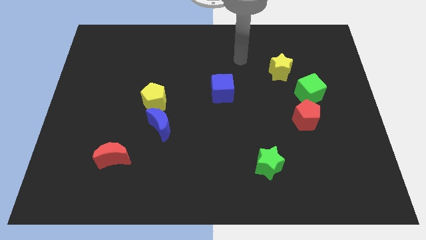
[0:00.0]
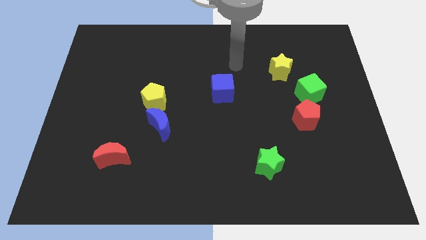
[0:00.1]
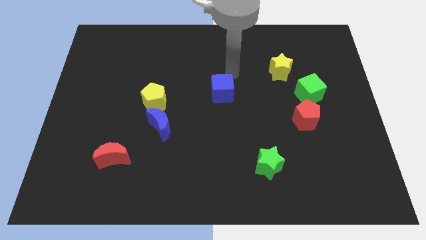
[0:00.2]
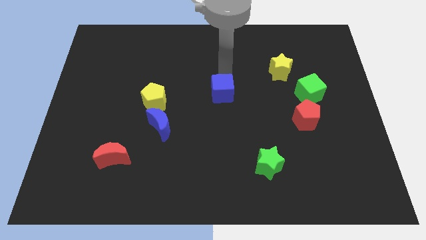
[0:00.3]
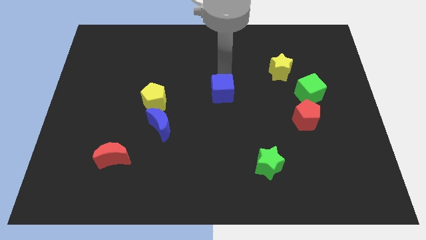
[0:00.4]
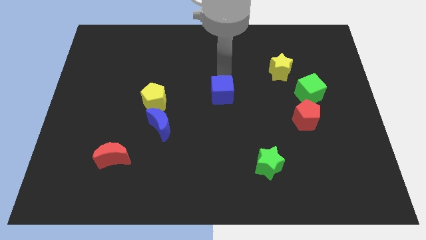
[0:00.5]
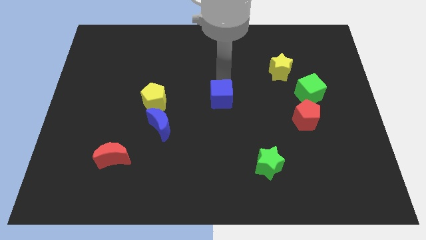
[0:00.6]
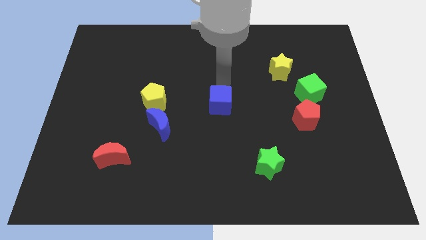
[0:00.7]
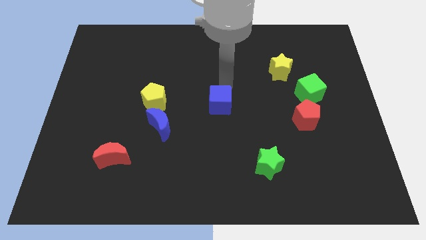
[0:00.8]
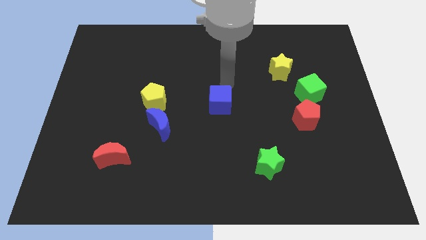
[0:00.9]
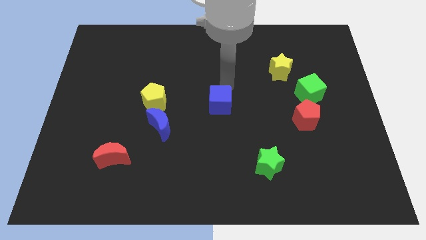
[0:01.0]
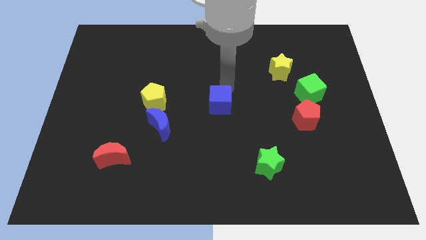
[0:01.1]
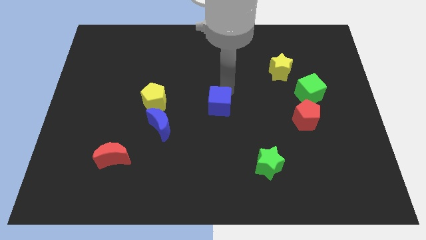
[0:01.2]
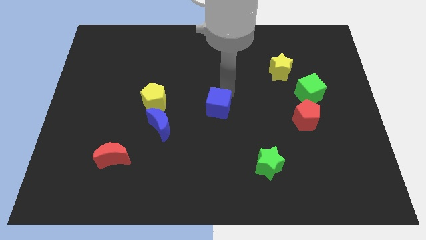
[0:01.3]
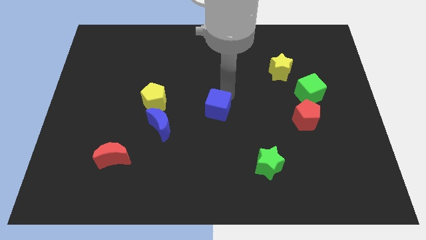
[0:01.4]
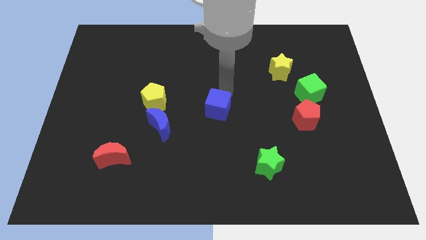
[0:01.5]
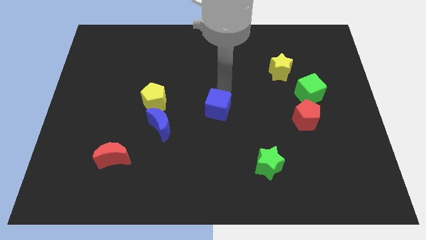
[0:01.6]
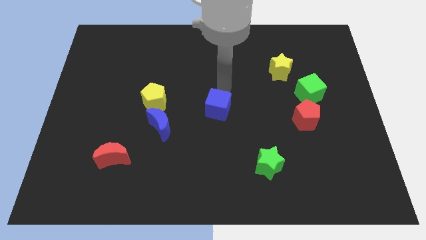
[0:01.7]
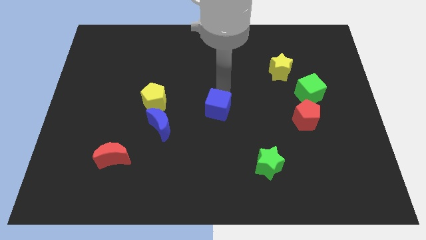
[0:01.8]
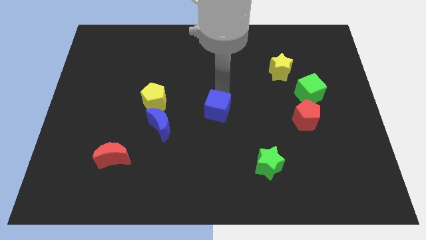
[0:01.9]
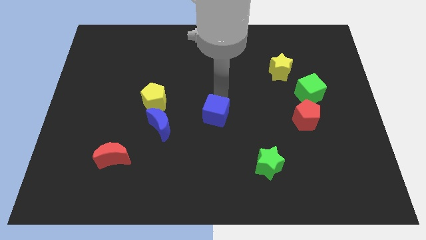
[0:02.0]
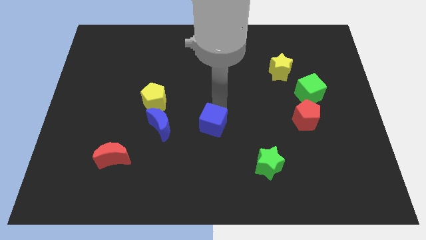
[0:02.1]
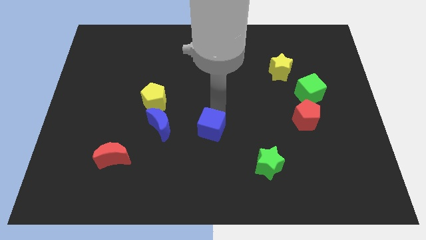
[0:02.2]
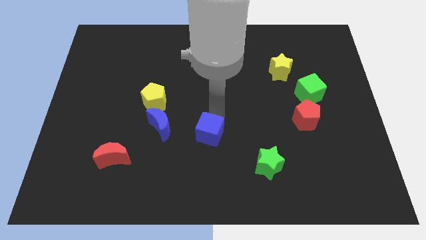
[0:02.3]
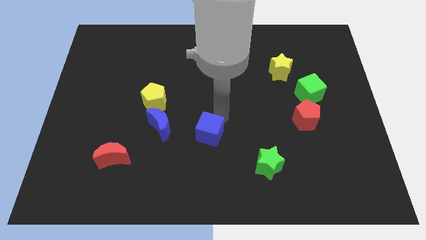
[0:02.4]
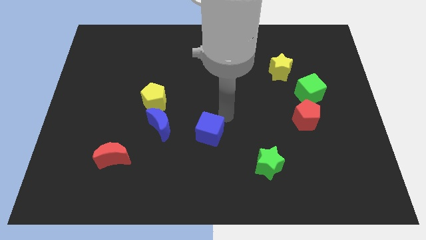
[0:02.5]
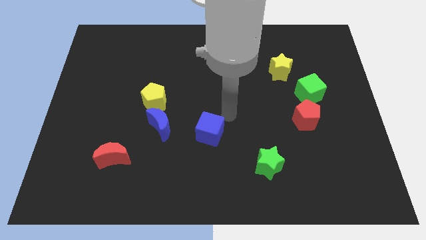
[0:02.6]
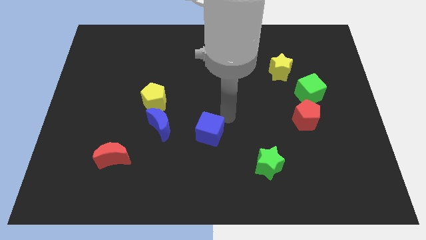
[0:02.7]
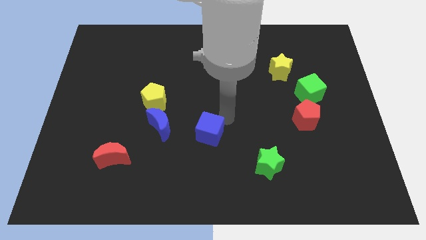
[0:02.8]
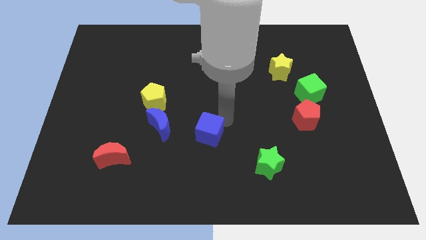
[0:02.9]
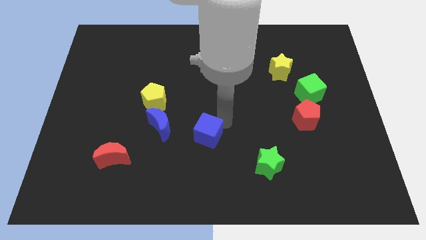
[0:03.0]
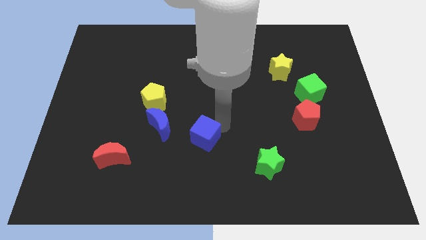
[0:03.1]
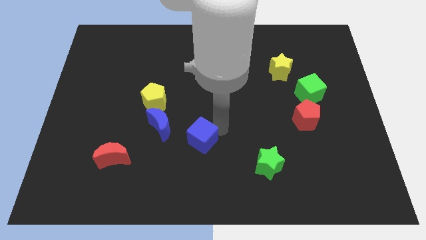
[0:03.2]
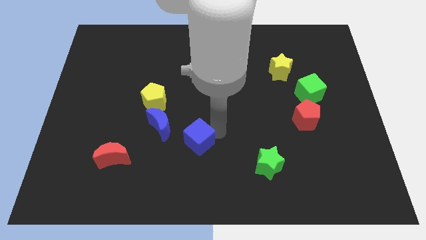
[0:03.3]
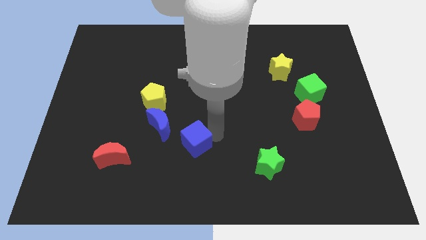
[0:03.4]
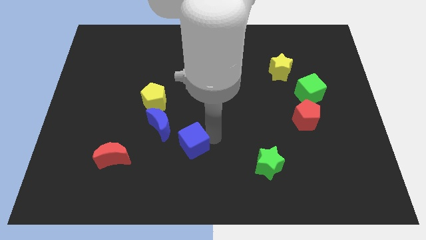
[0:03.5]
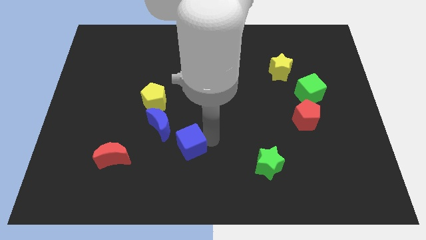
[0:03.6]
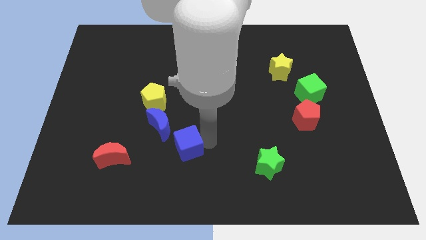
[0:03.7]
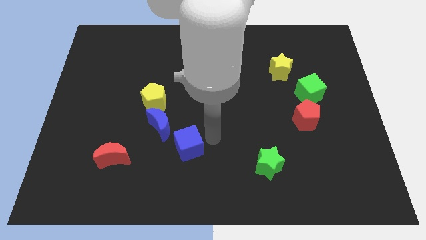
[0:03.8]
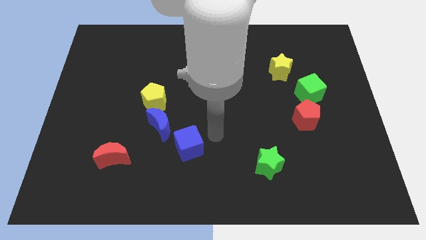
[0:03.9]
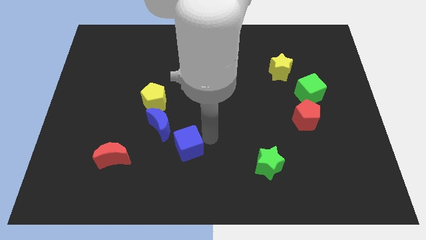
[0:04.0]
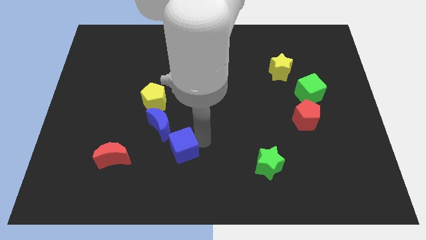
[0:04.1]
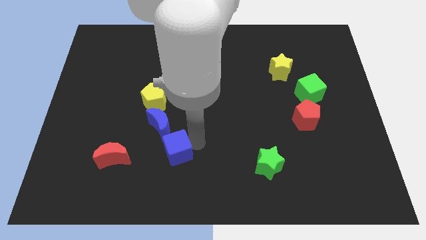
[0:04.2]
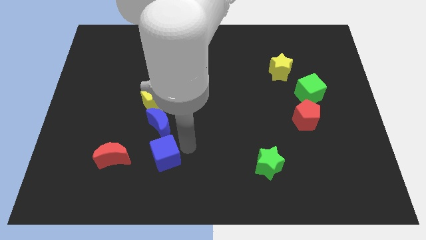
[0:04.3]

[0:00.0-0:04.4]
move the blue cube downwards and then to the left

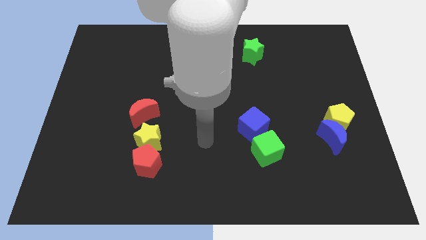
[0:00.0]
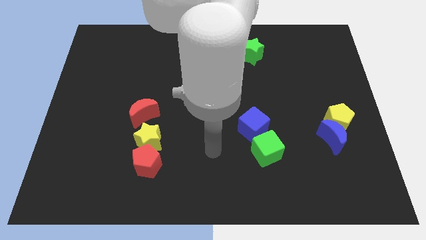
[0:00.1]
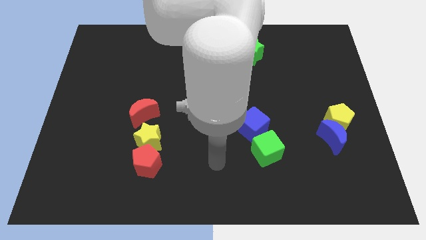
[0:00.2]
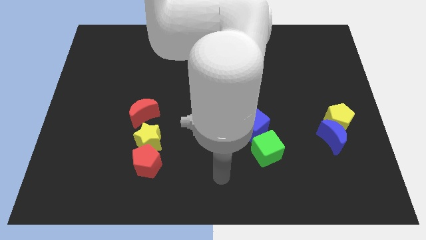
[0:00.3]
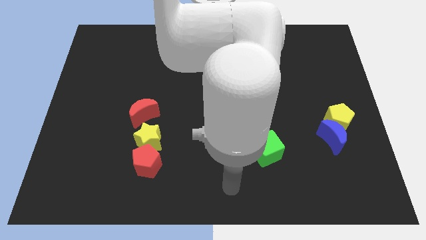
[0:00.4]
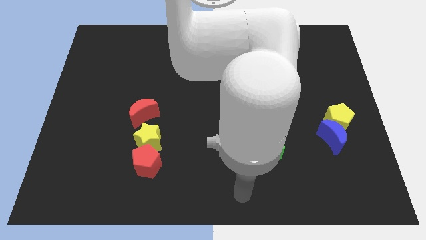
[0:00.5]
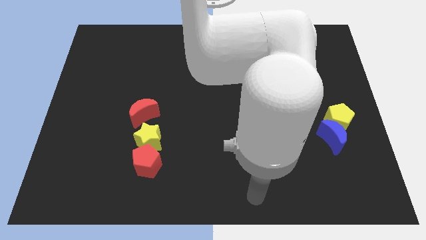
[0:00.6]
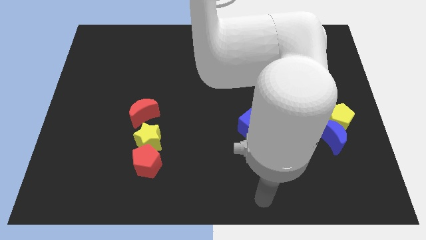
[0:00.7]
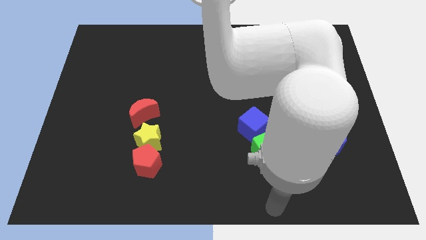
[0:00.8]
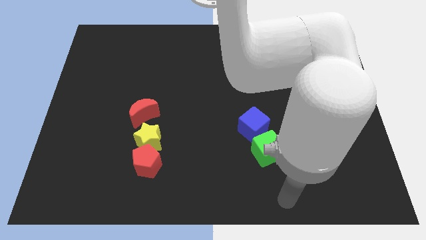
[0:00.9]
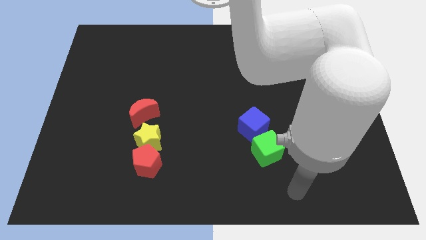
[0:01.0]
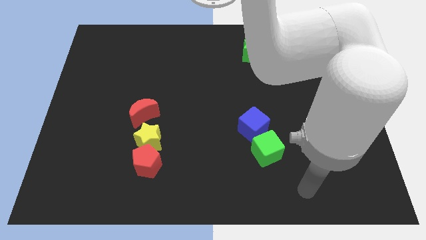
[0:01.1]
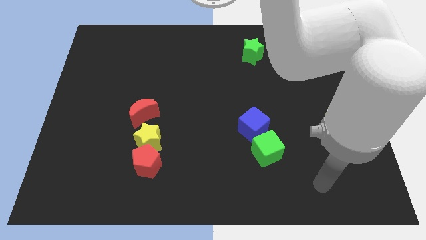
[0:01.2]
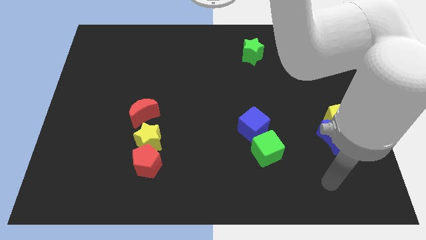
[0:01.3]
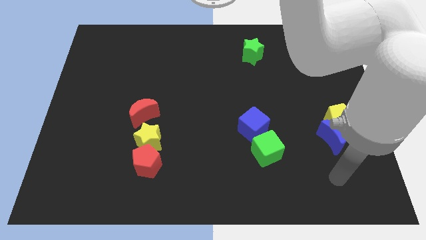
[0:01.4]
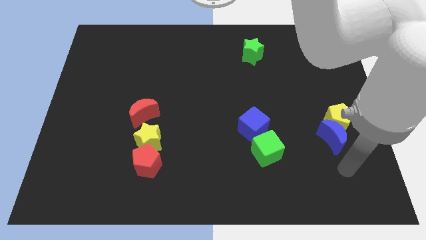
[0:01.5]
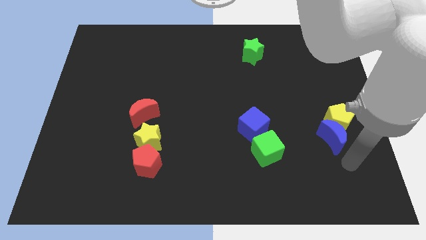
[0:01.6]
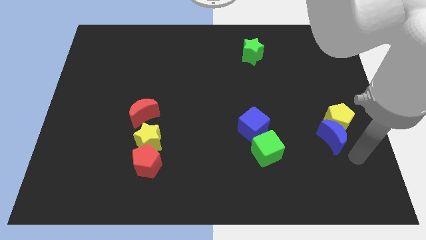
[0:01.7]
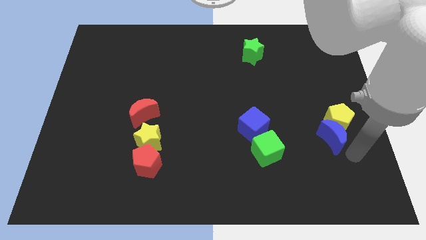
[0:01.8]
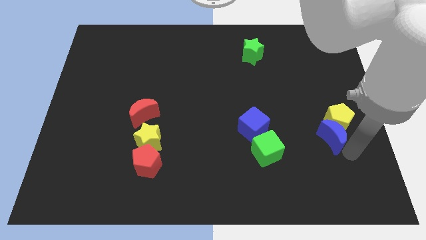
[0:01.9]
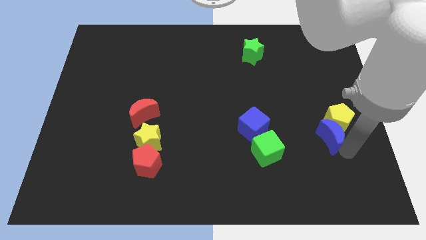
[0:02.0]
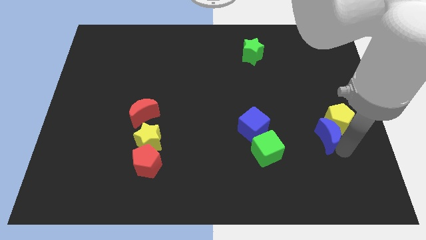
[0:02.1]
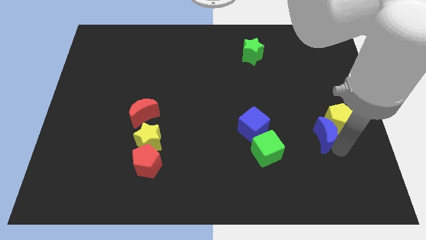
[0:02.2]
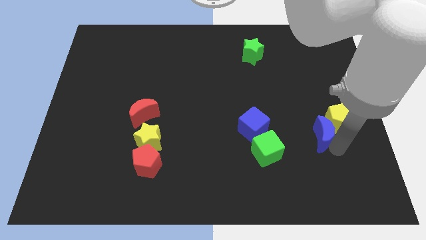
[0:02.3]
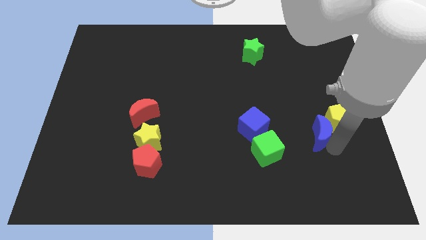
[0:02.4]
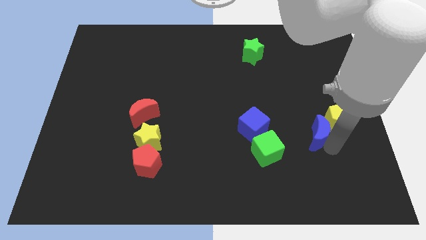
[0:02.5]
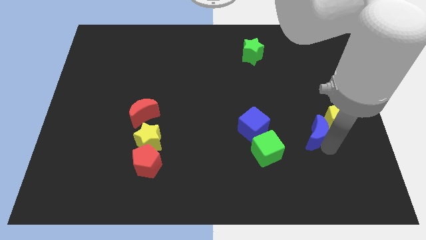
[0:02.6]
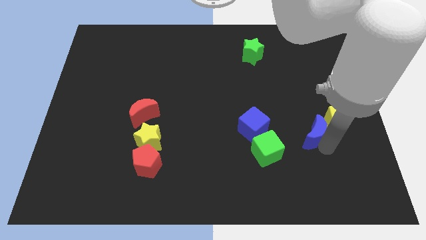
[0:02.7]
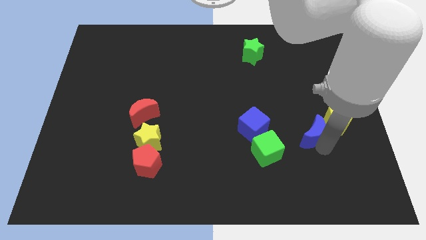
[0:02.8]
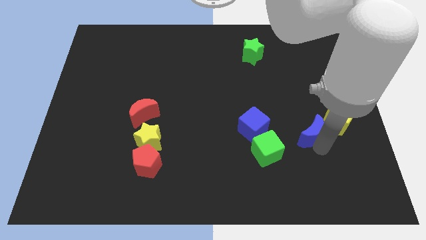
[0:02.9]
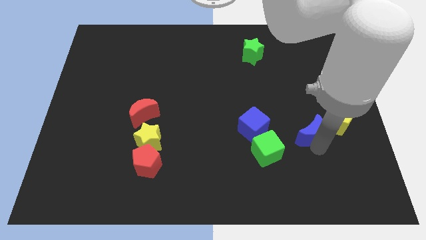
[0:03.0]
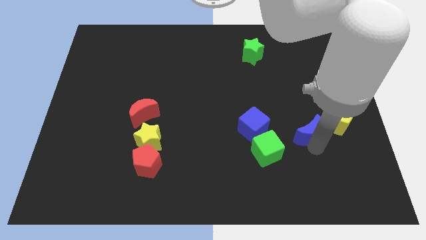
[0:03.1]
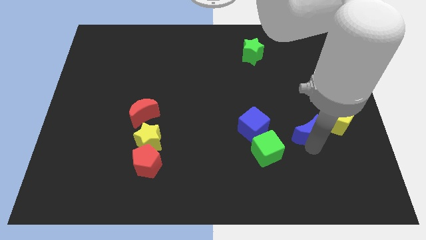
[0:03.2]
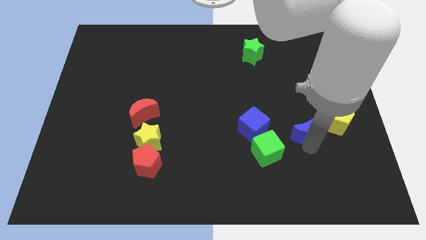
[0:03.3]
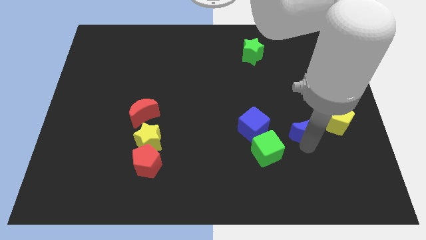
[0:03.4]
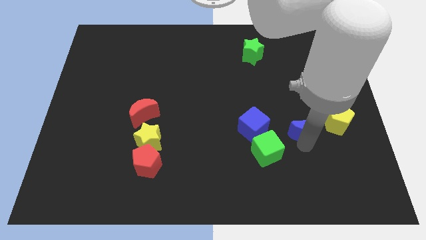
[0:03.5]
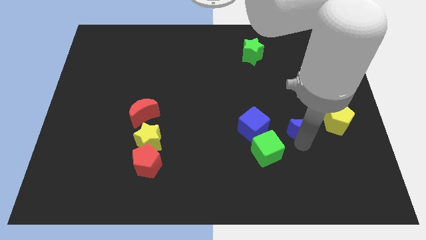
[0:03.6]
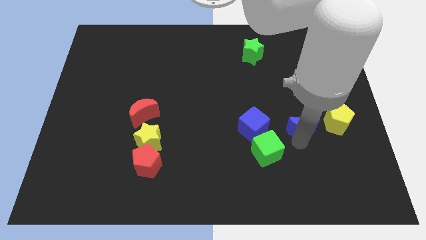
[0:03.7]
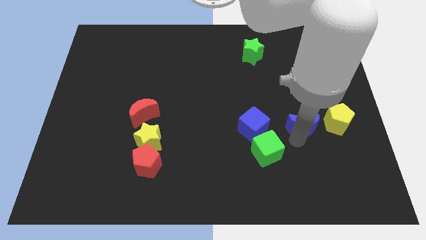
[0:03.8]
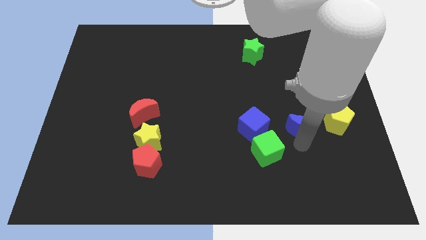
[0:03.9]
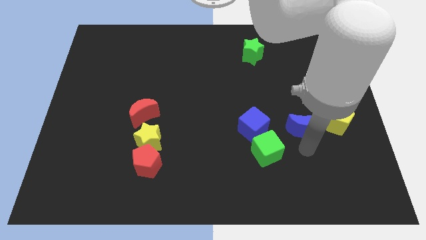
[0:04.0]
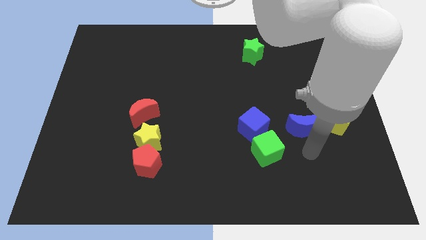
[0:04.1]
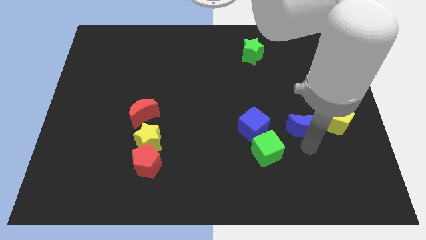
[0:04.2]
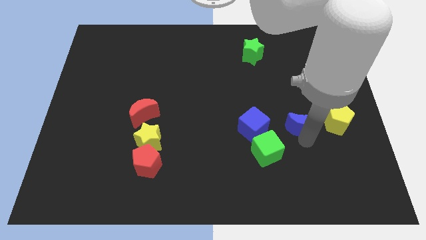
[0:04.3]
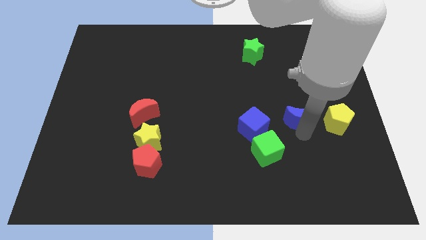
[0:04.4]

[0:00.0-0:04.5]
push the blue moon a bit up and left diagonally
